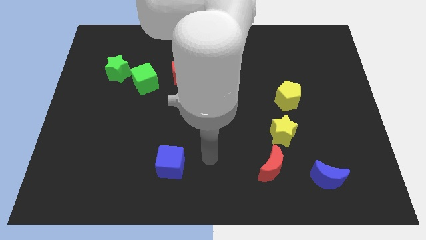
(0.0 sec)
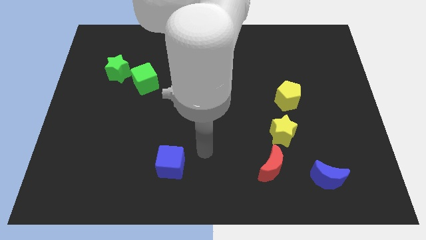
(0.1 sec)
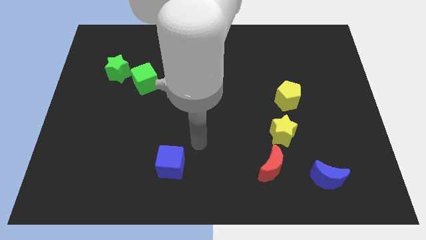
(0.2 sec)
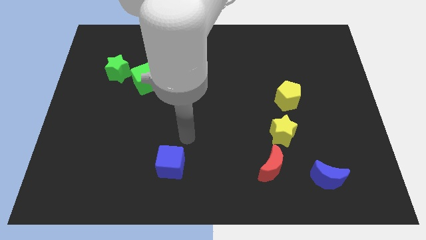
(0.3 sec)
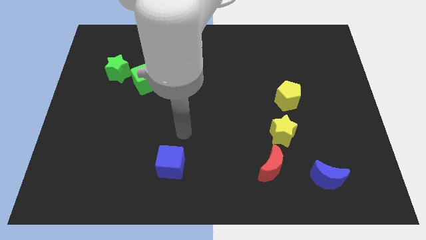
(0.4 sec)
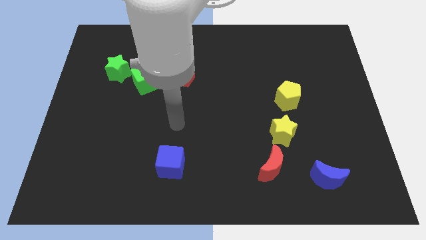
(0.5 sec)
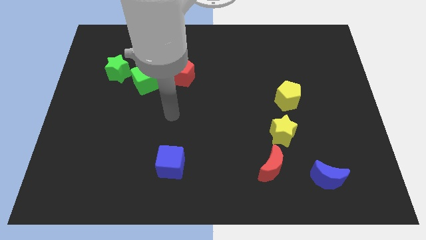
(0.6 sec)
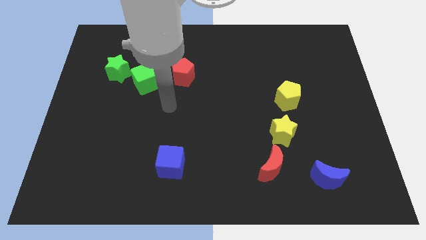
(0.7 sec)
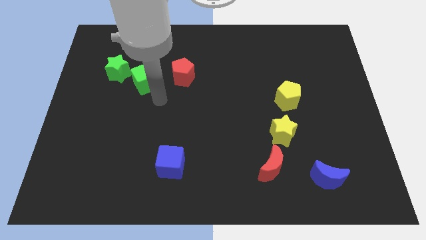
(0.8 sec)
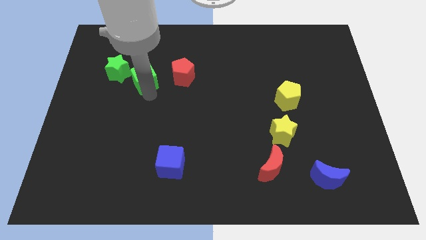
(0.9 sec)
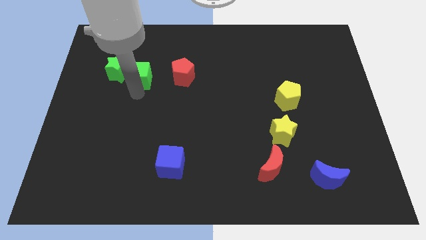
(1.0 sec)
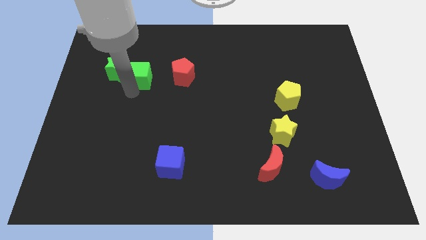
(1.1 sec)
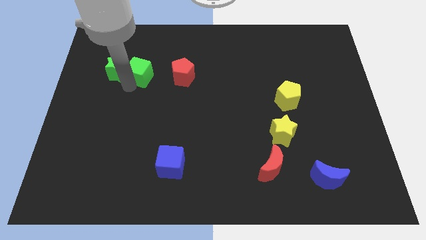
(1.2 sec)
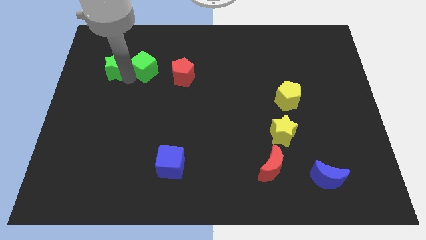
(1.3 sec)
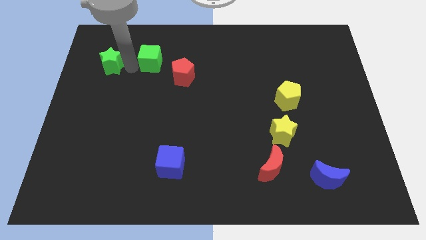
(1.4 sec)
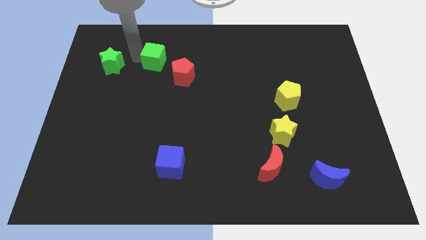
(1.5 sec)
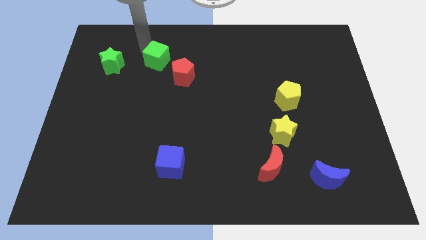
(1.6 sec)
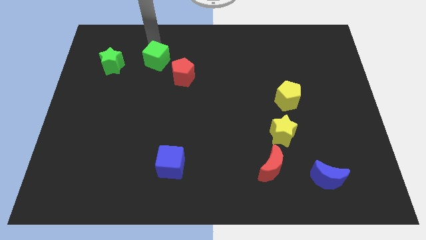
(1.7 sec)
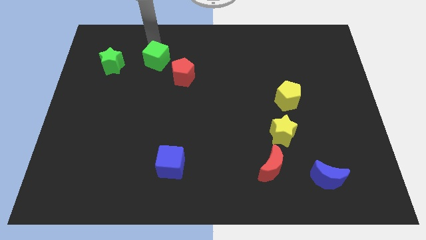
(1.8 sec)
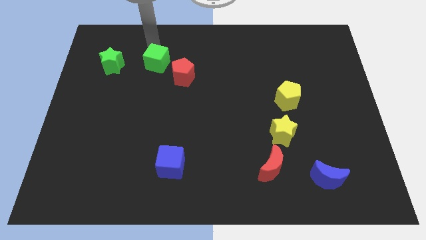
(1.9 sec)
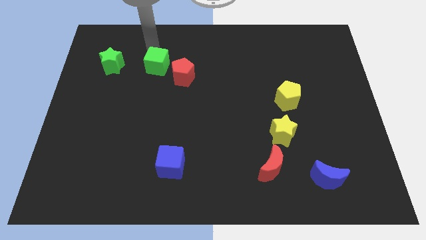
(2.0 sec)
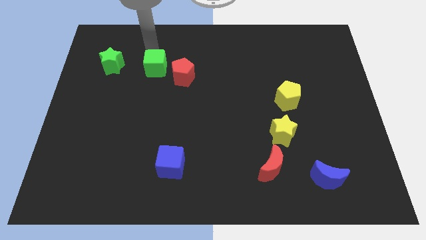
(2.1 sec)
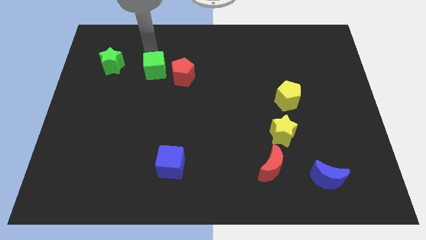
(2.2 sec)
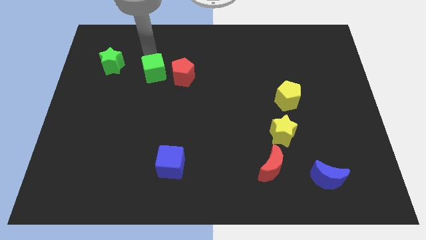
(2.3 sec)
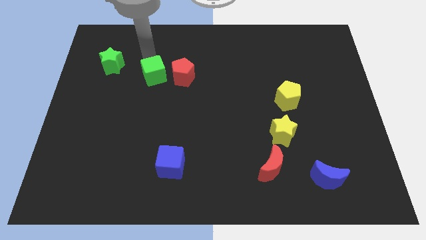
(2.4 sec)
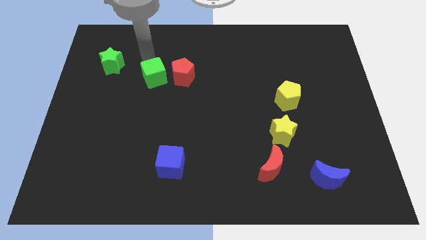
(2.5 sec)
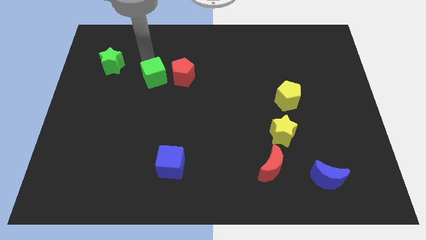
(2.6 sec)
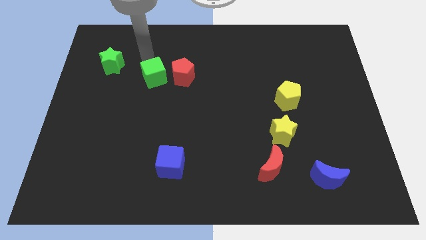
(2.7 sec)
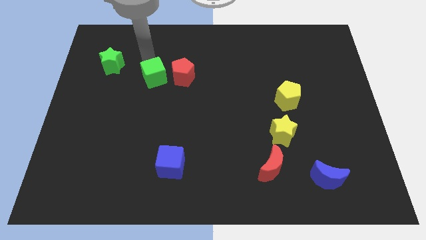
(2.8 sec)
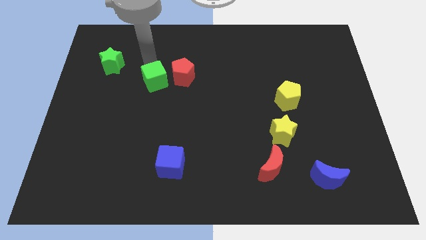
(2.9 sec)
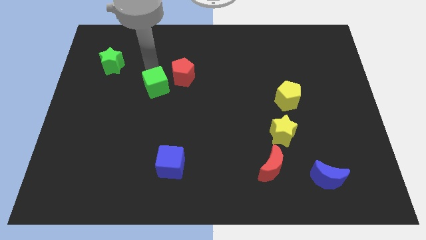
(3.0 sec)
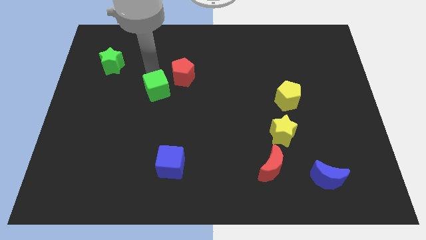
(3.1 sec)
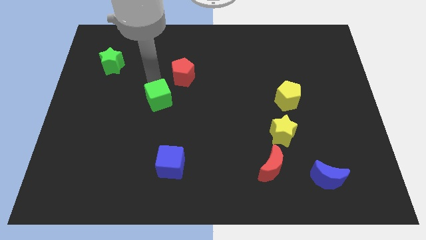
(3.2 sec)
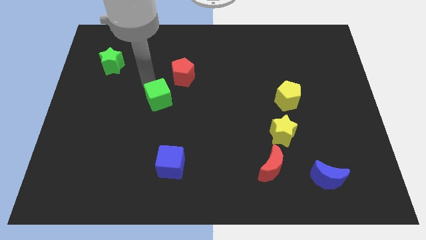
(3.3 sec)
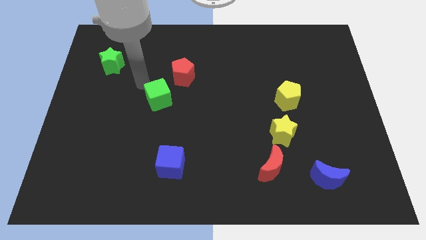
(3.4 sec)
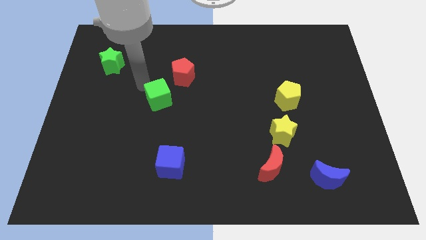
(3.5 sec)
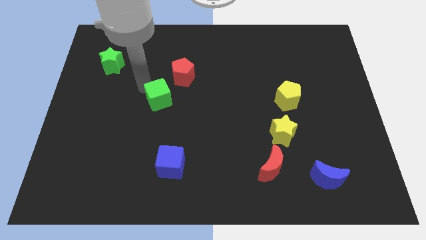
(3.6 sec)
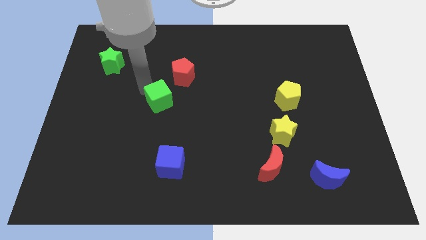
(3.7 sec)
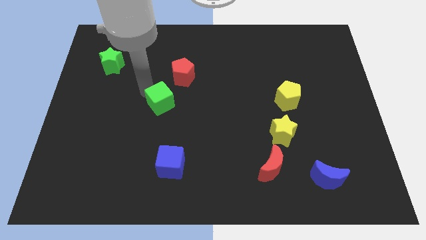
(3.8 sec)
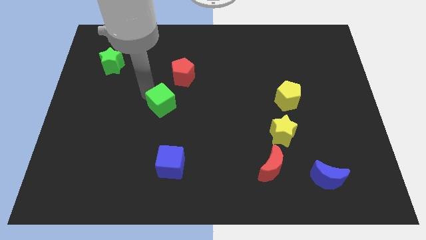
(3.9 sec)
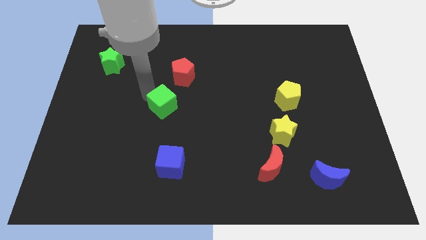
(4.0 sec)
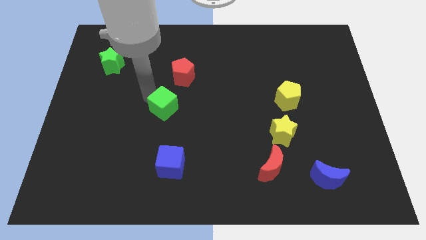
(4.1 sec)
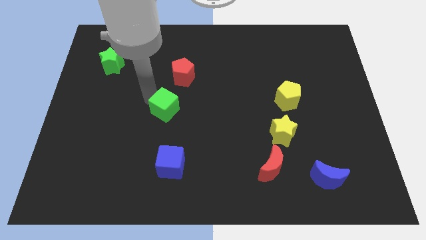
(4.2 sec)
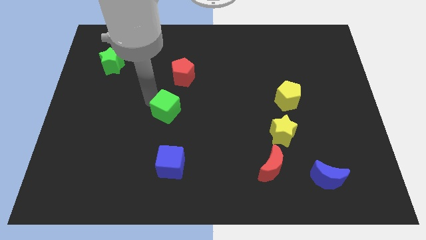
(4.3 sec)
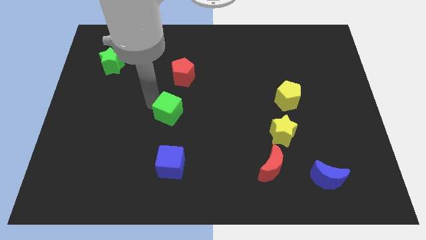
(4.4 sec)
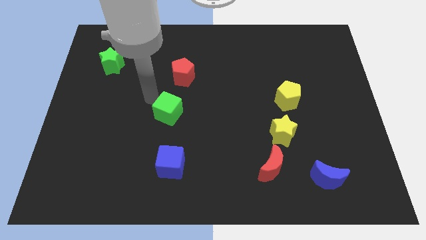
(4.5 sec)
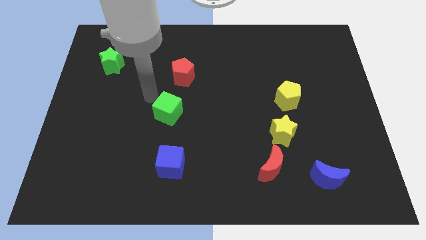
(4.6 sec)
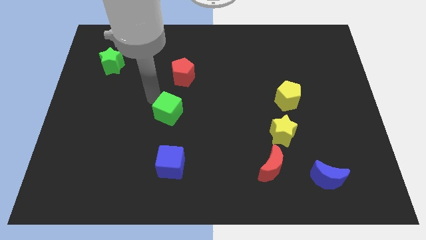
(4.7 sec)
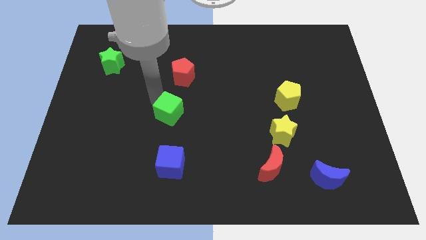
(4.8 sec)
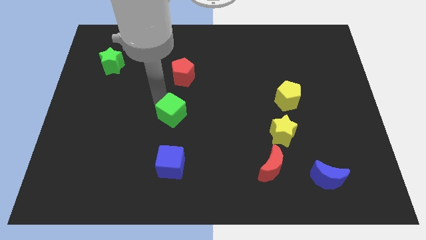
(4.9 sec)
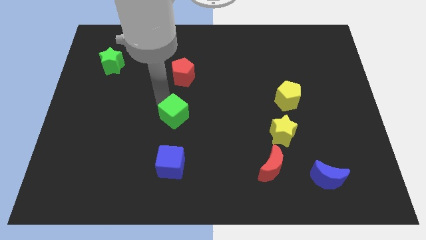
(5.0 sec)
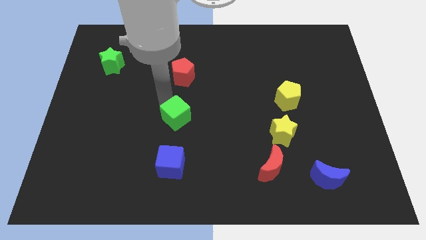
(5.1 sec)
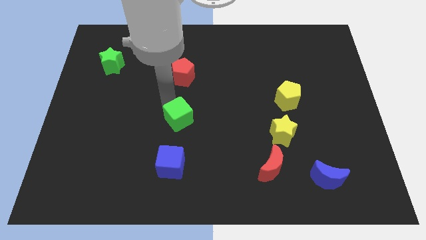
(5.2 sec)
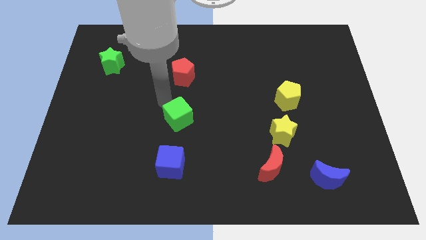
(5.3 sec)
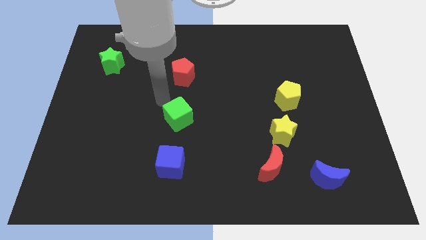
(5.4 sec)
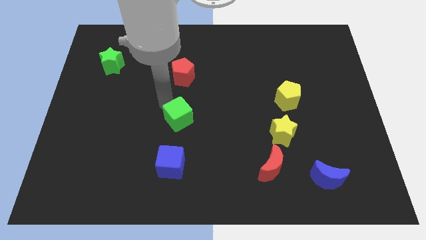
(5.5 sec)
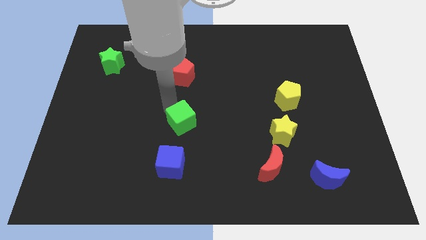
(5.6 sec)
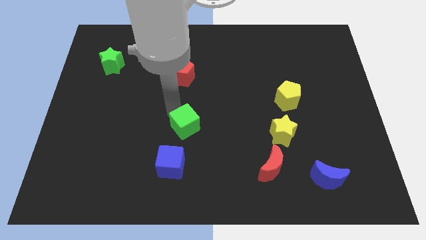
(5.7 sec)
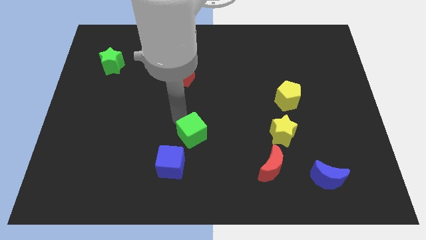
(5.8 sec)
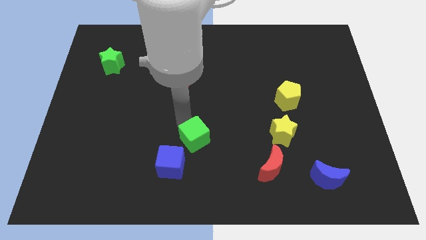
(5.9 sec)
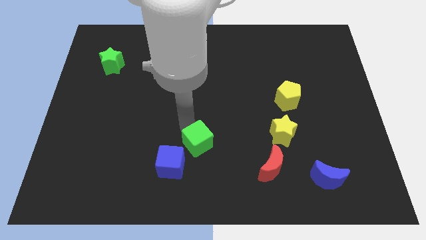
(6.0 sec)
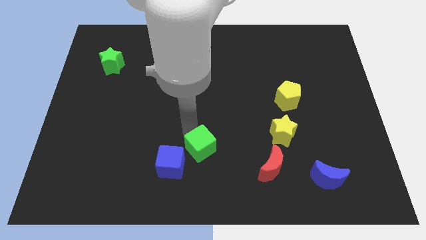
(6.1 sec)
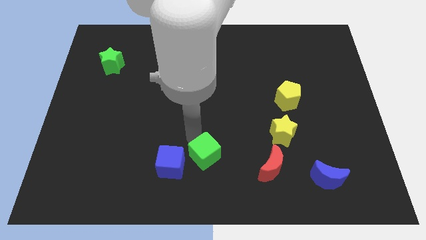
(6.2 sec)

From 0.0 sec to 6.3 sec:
push the green cube to the left of the red moon
